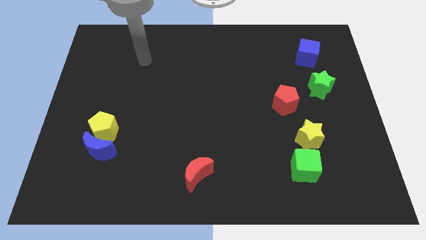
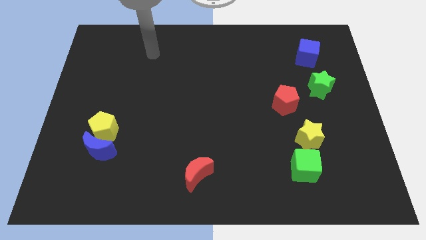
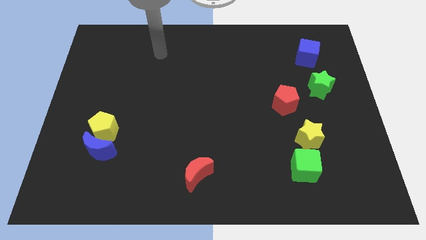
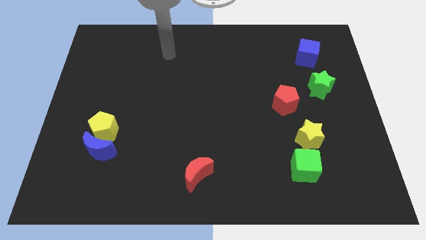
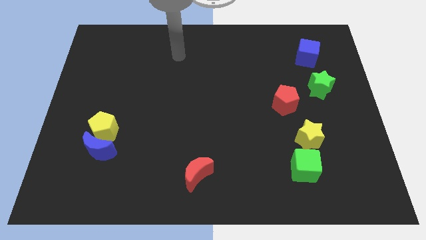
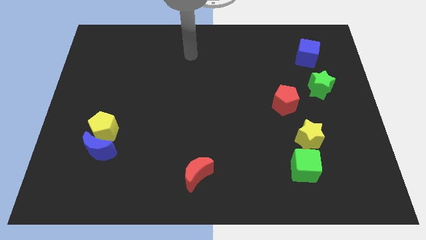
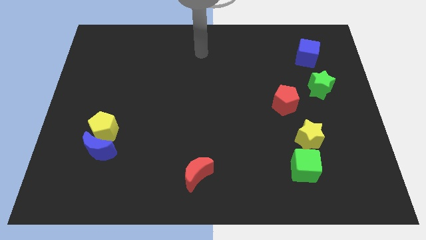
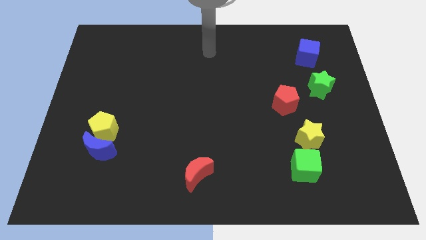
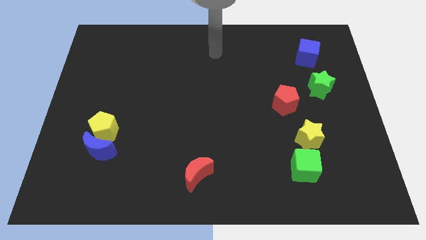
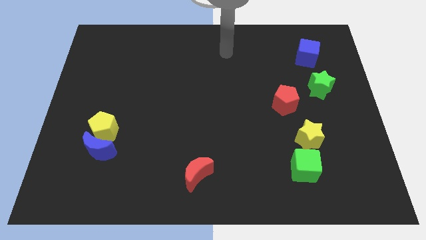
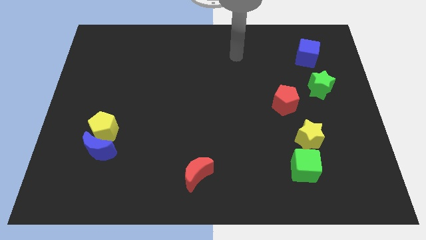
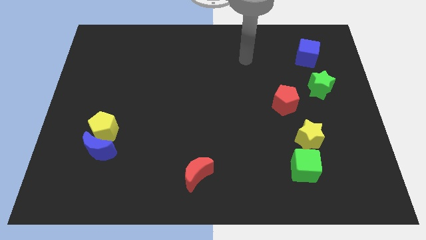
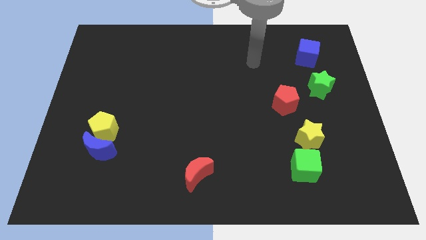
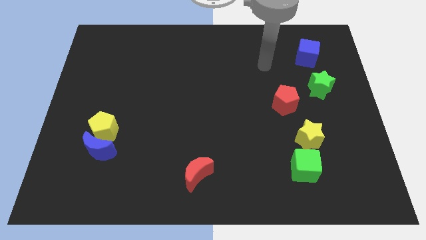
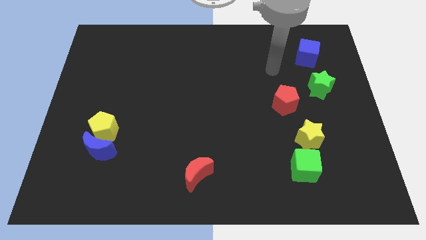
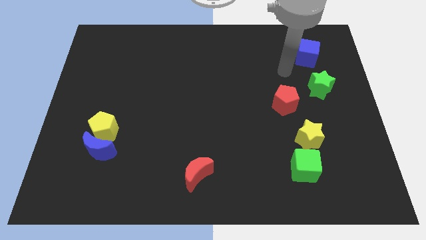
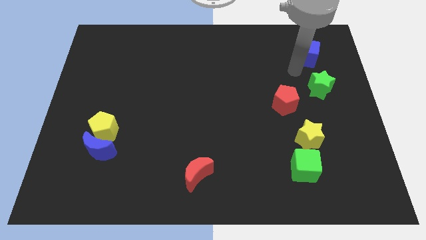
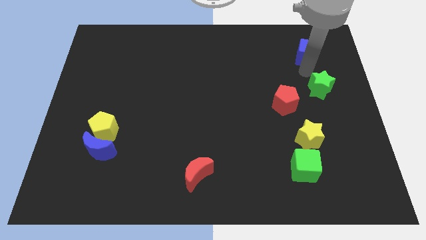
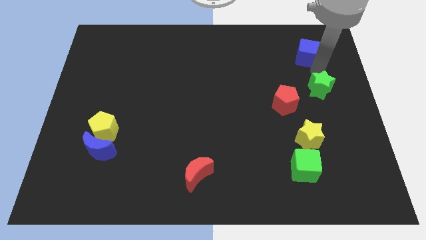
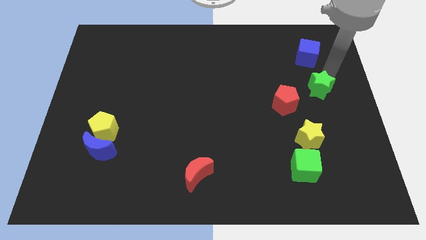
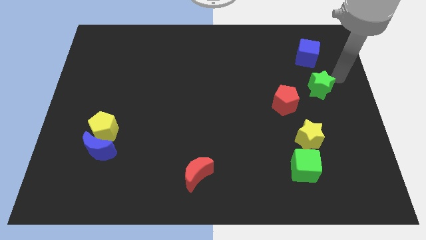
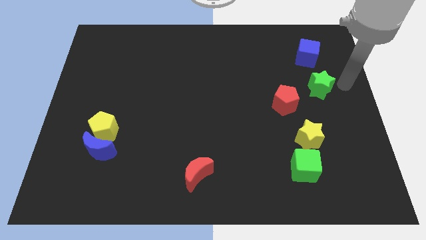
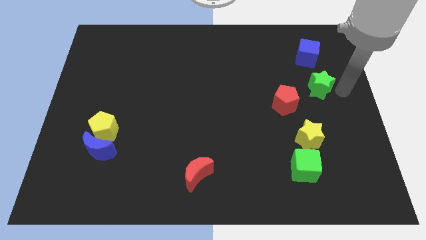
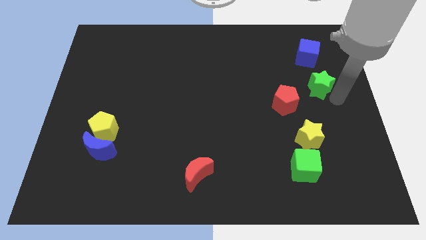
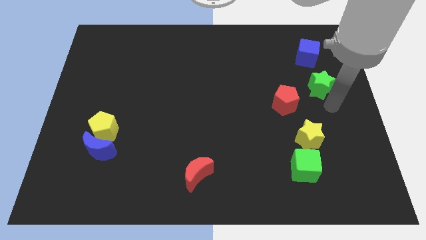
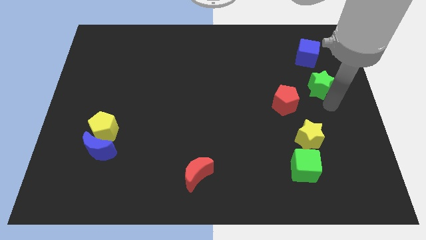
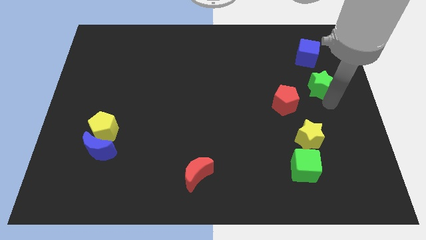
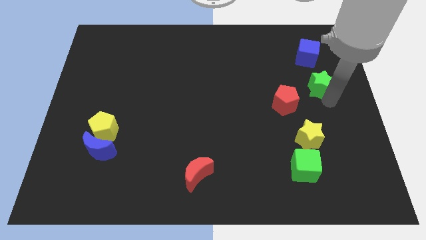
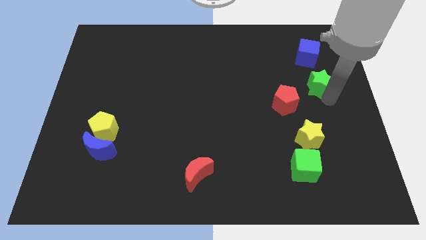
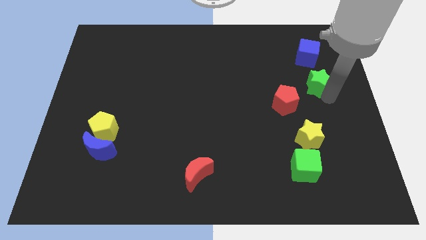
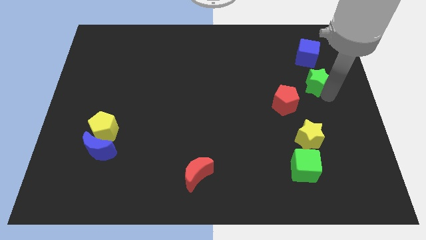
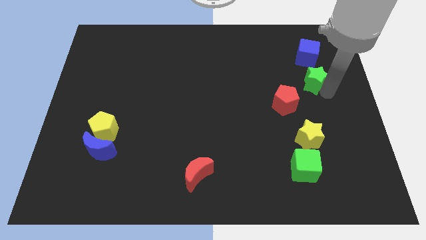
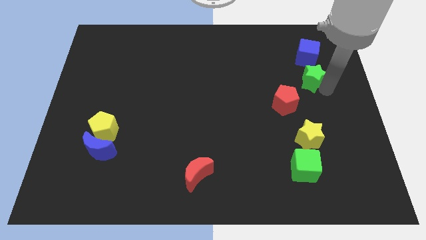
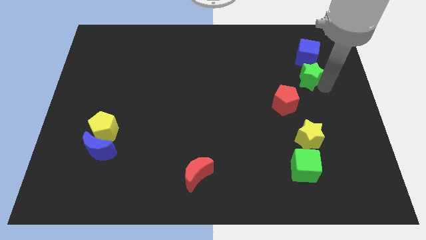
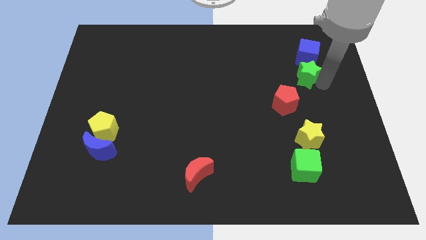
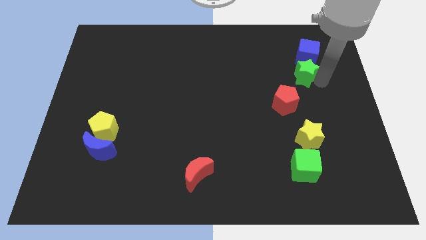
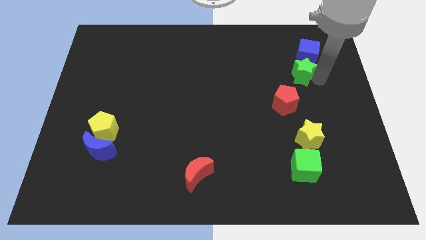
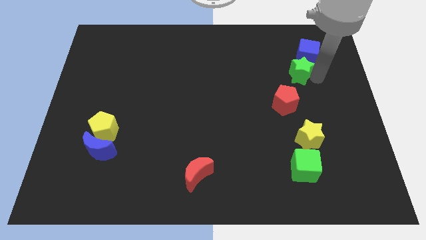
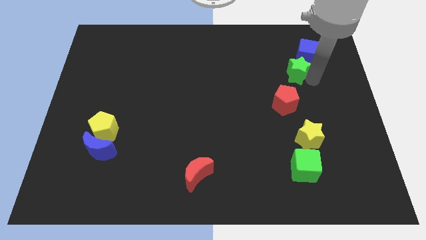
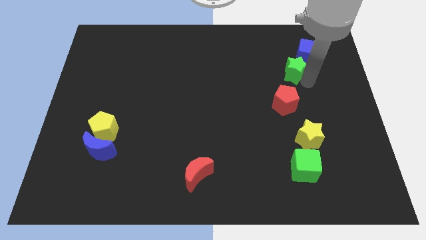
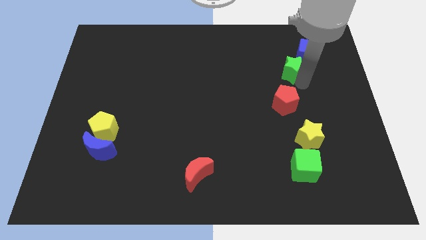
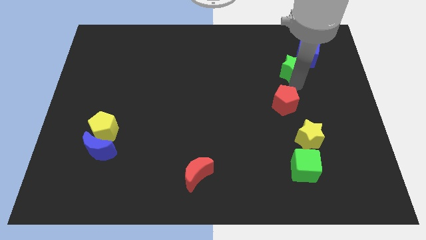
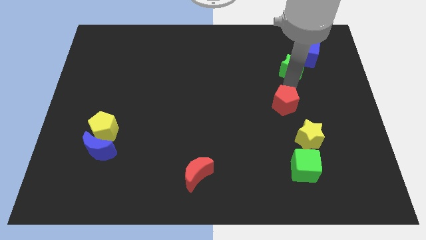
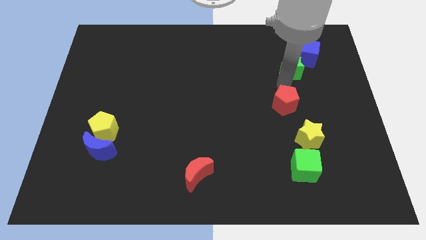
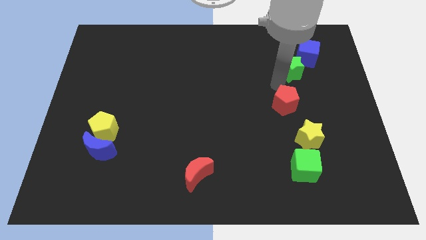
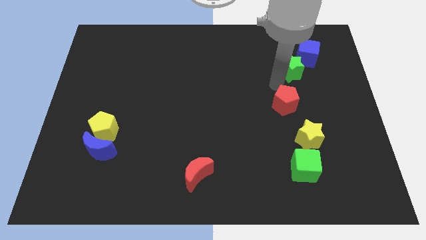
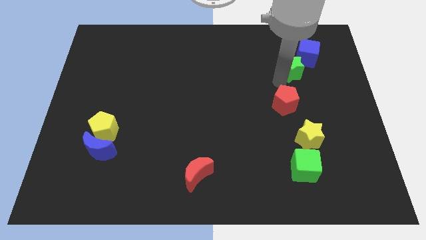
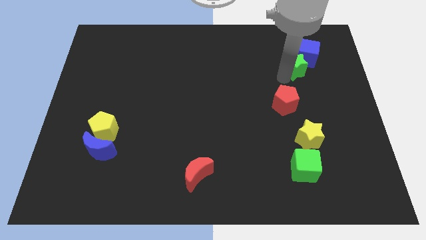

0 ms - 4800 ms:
push the green star to the blue cube

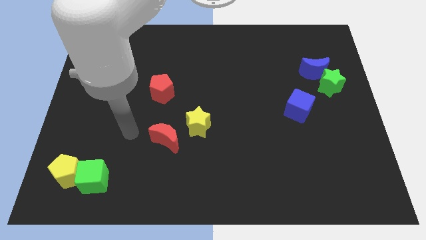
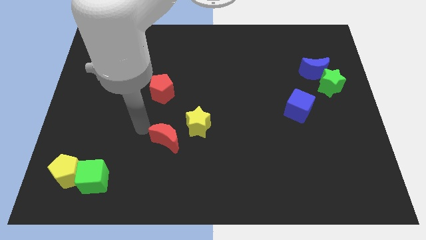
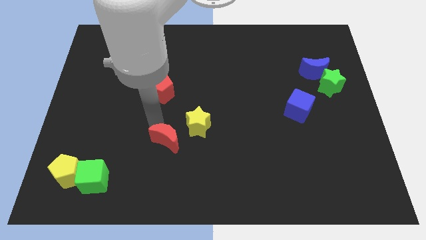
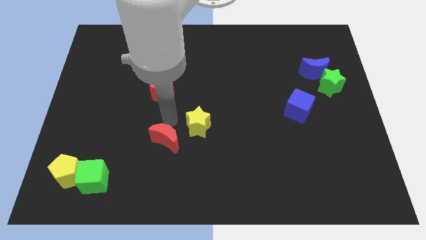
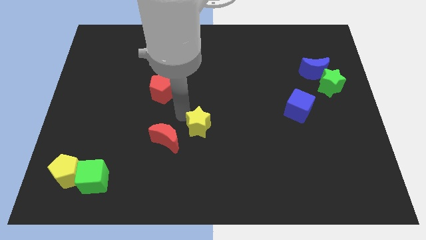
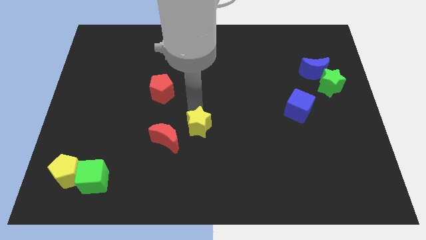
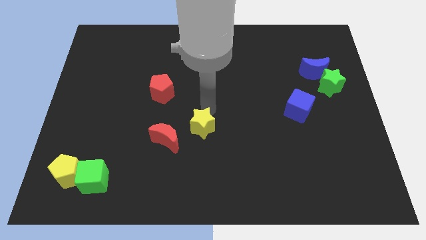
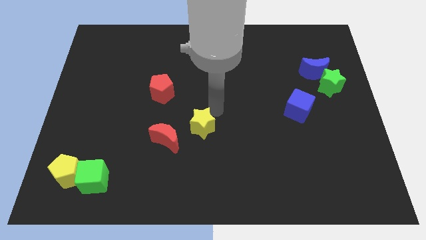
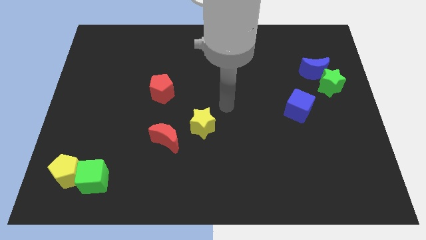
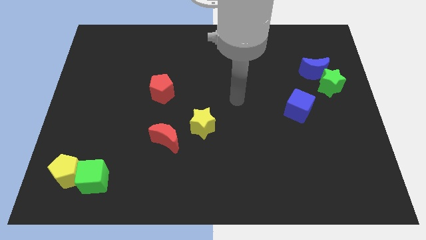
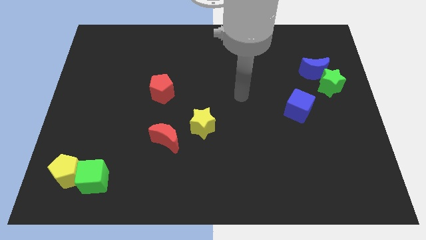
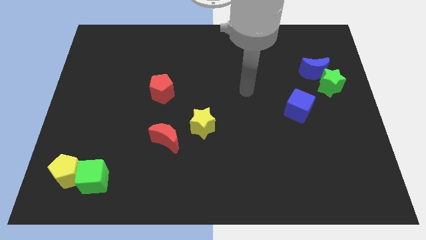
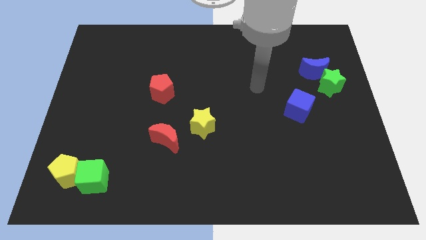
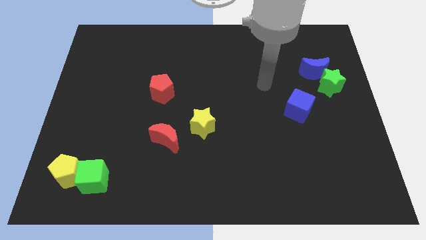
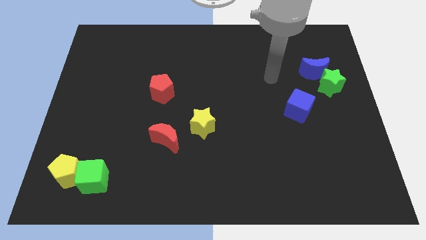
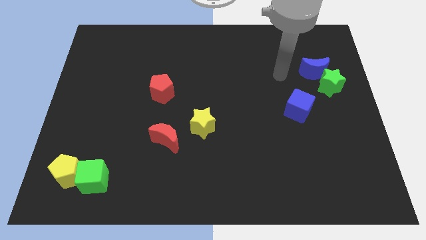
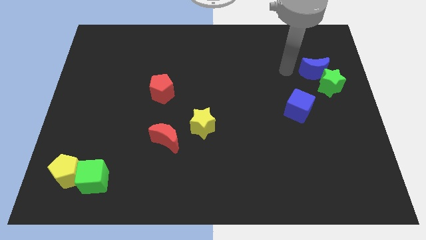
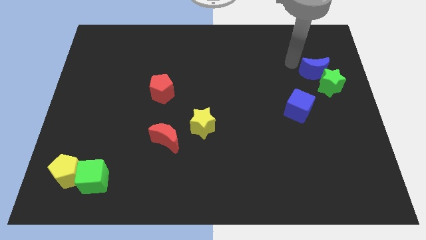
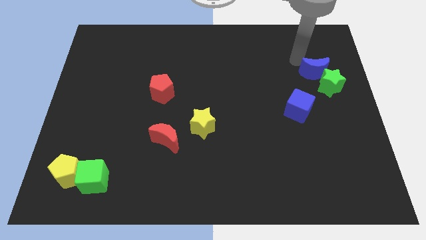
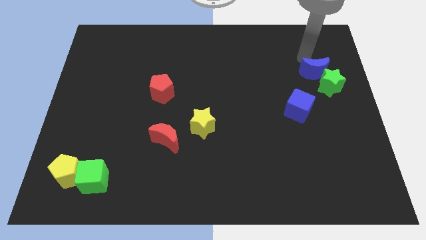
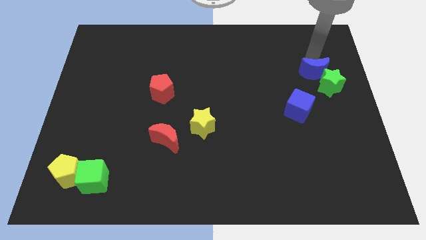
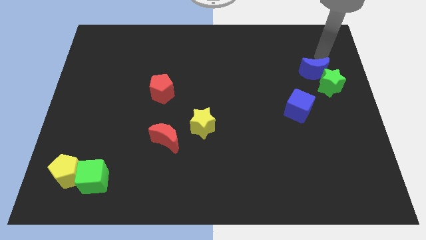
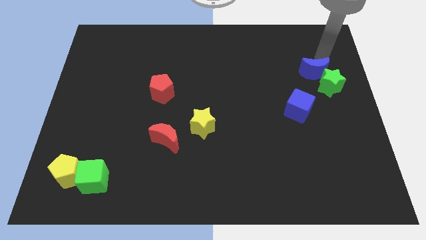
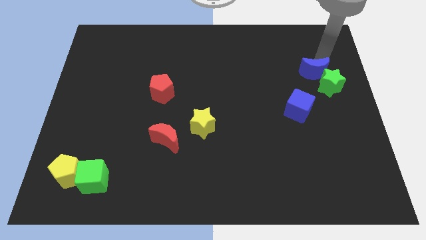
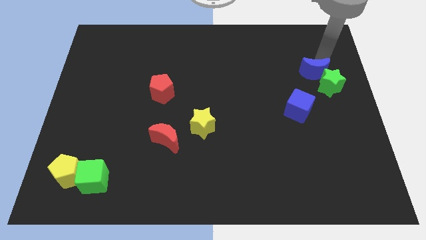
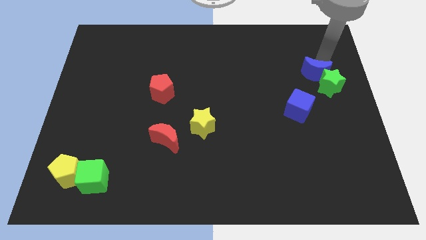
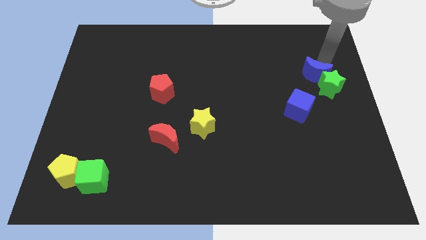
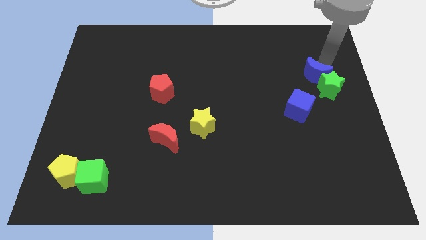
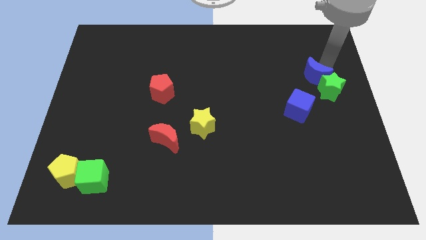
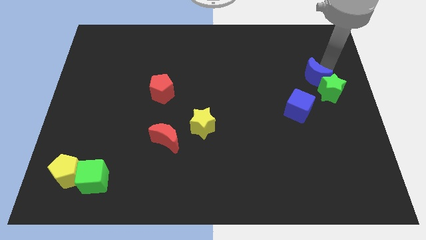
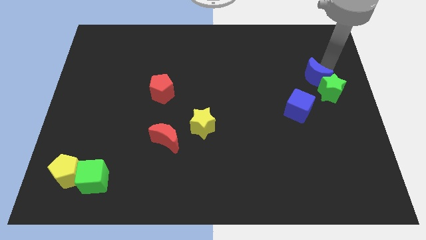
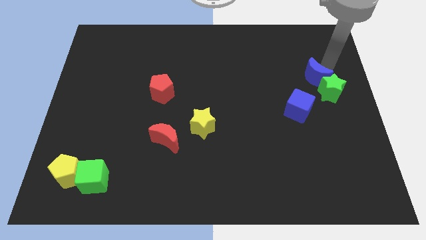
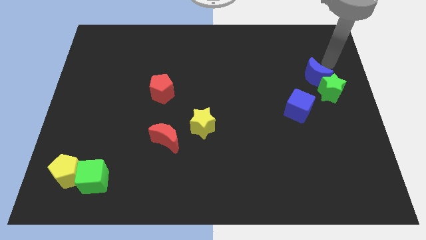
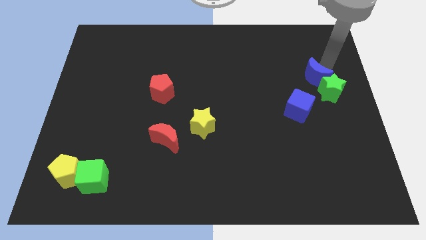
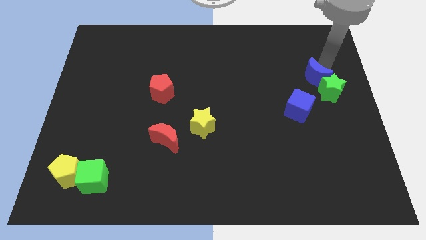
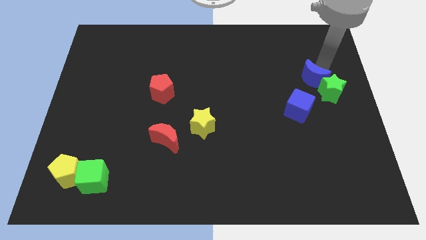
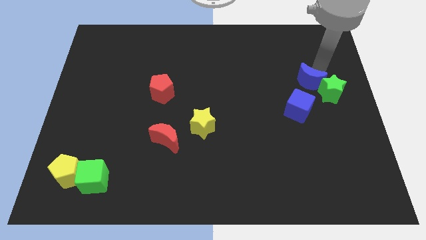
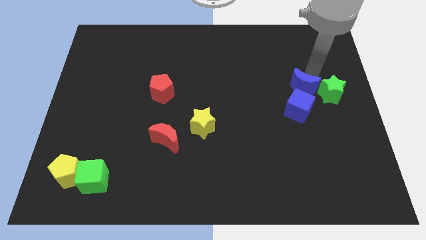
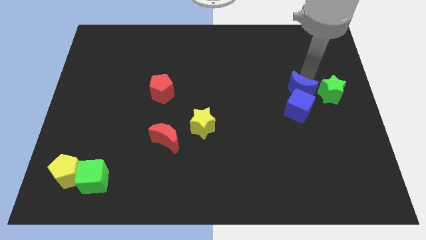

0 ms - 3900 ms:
push the blue moon next to the blue cube
